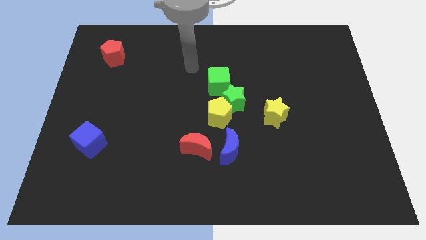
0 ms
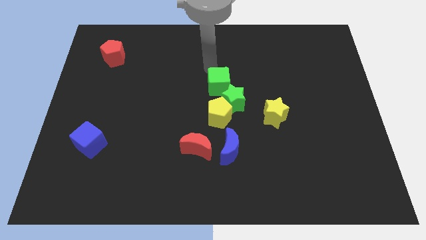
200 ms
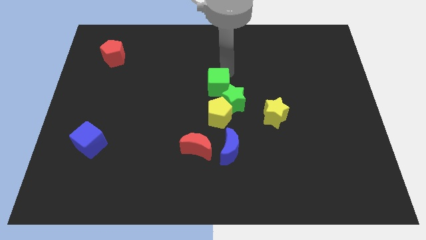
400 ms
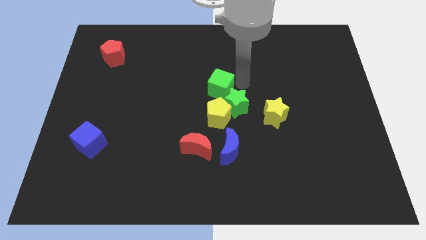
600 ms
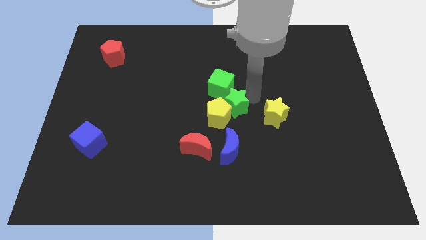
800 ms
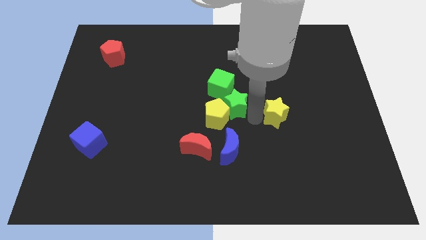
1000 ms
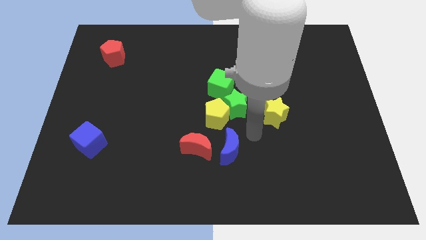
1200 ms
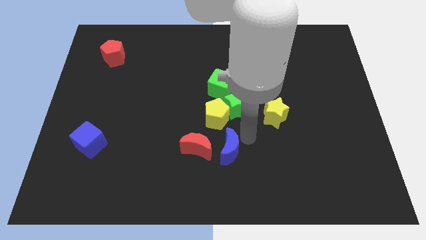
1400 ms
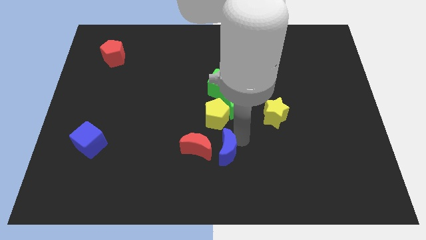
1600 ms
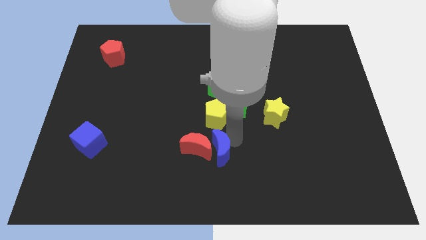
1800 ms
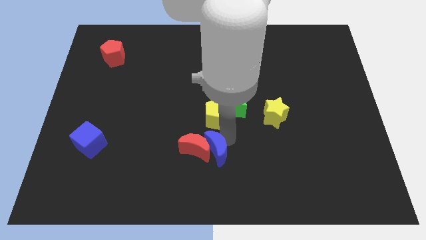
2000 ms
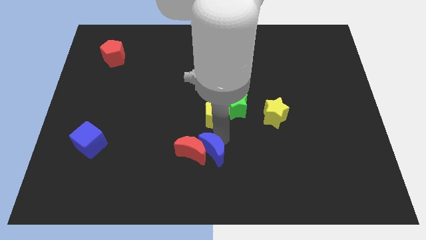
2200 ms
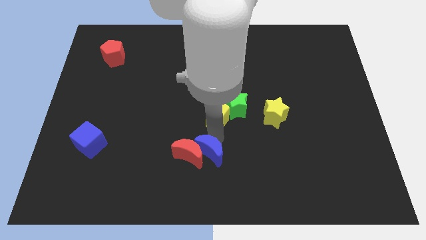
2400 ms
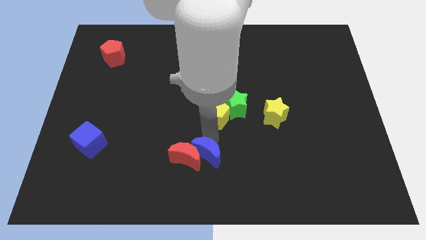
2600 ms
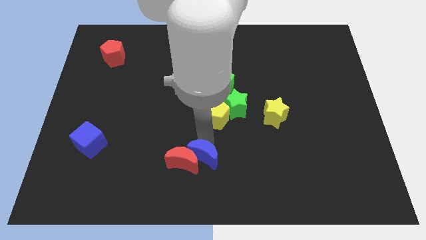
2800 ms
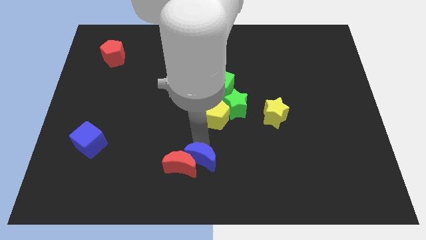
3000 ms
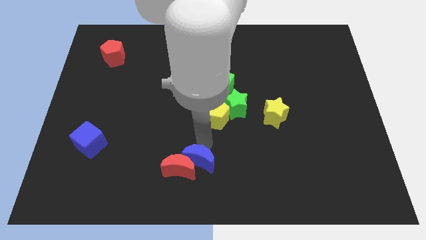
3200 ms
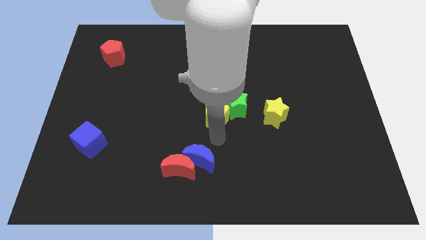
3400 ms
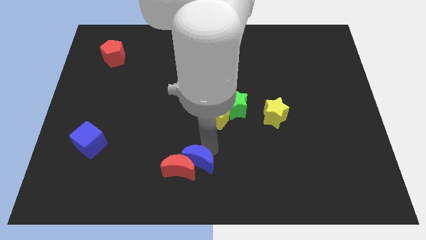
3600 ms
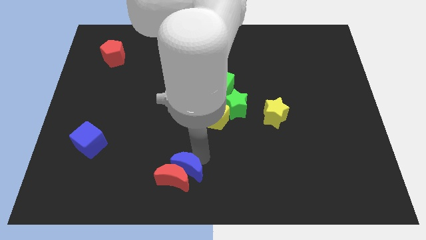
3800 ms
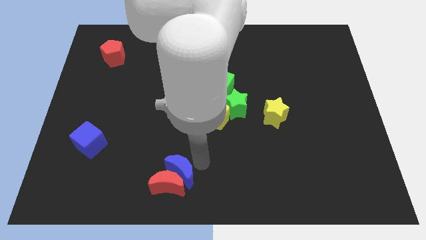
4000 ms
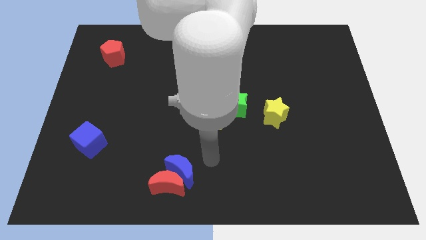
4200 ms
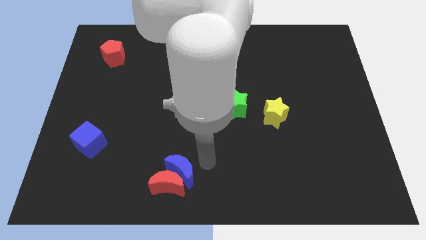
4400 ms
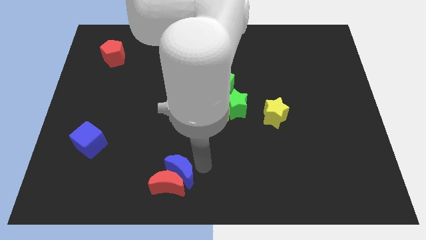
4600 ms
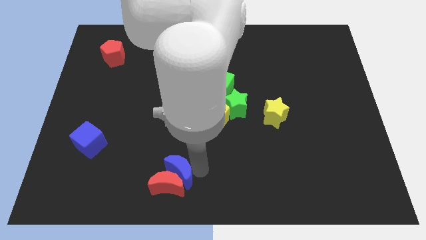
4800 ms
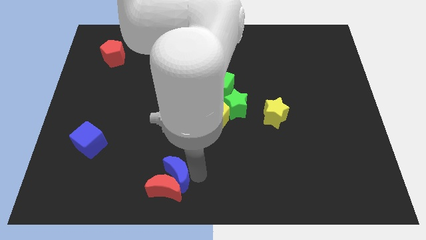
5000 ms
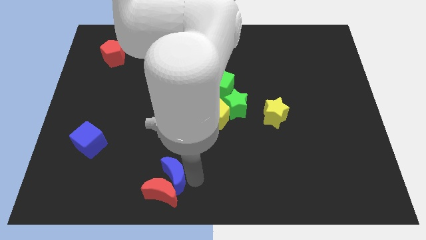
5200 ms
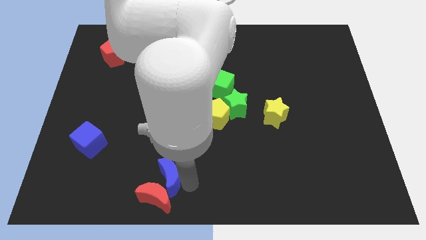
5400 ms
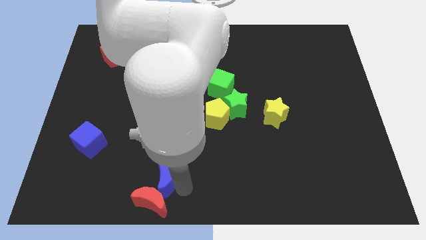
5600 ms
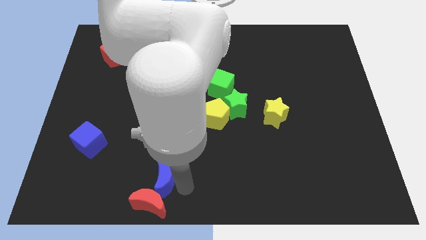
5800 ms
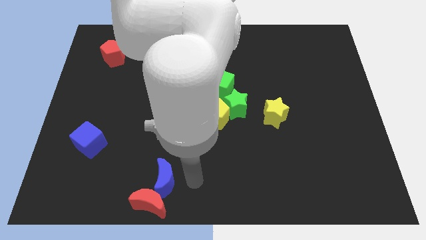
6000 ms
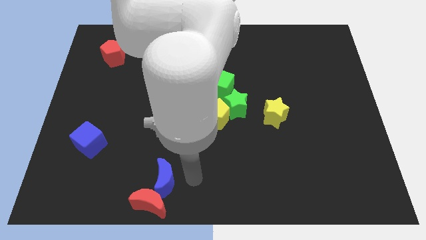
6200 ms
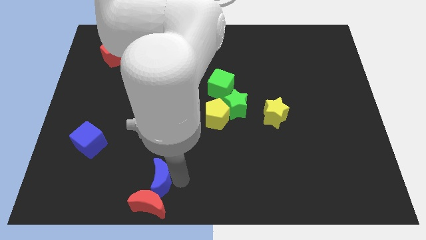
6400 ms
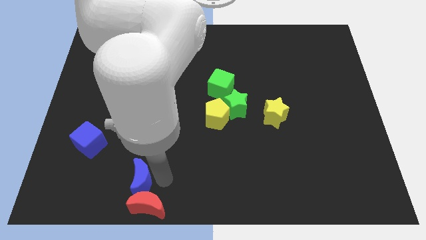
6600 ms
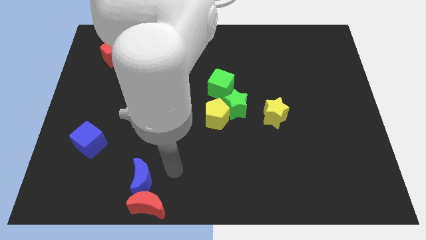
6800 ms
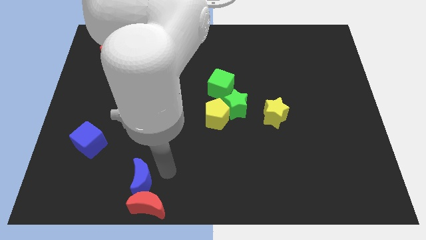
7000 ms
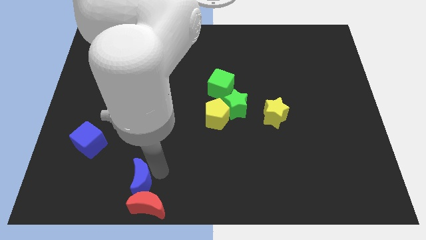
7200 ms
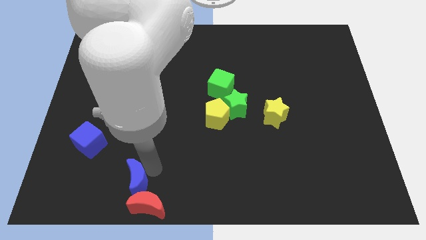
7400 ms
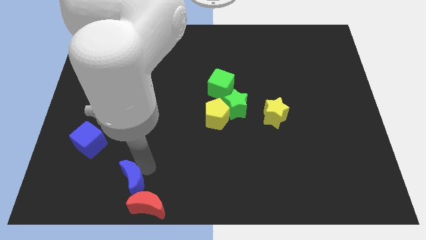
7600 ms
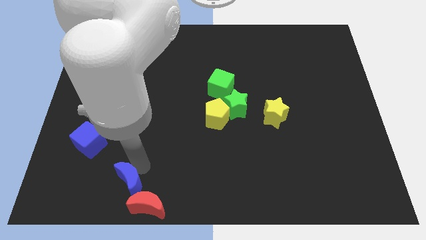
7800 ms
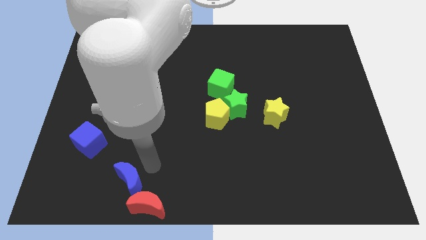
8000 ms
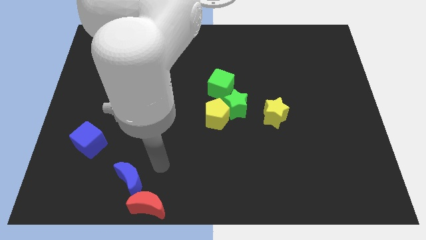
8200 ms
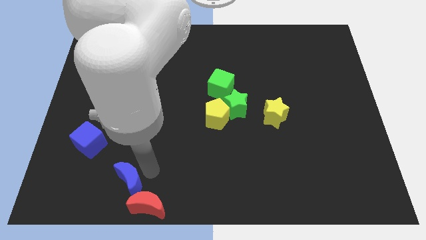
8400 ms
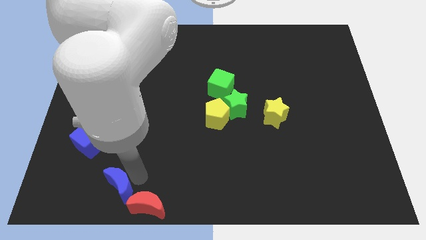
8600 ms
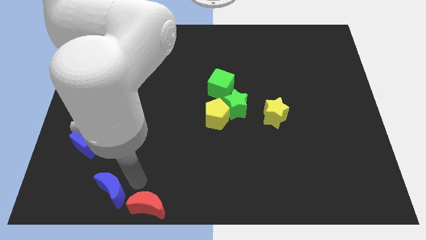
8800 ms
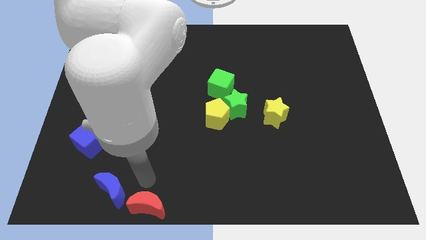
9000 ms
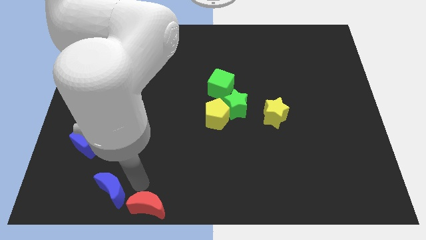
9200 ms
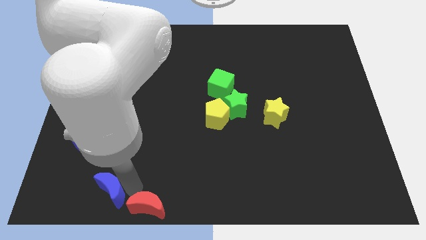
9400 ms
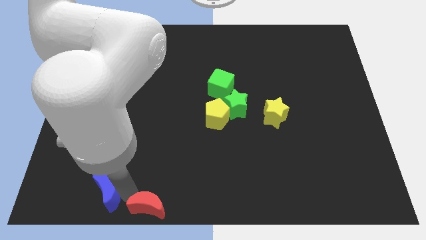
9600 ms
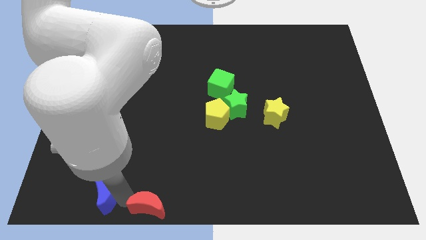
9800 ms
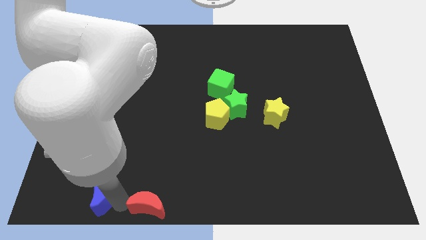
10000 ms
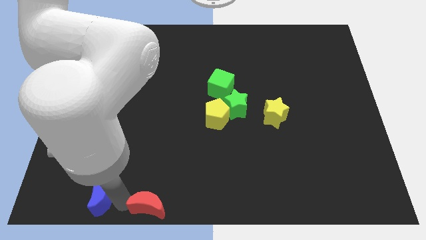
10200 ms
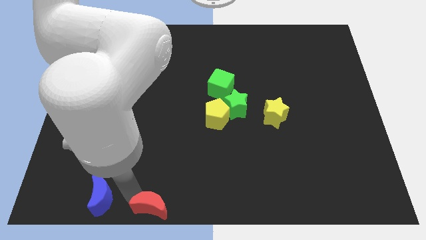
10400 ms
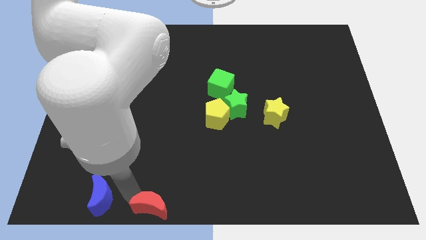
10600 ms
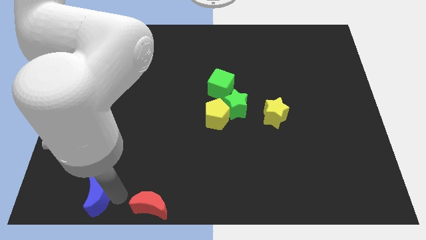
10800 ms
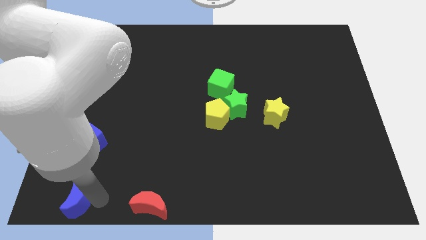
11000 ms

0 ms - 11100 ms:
slide the blue moon to the bottom left

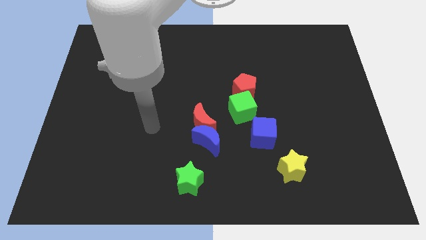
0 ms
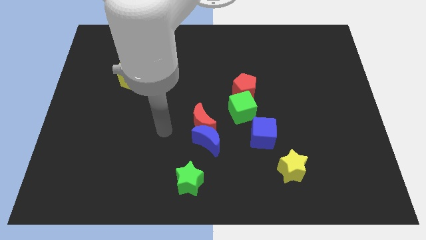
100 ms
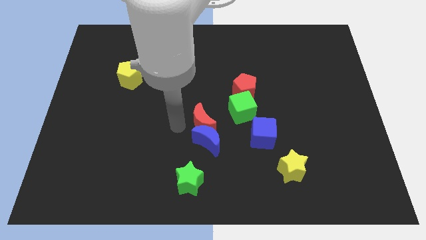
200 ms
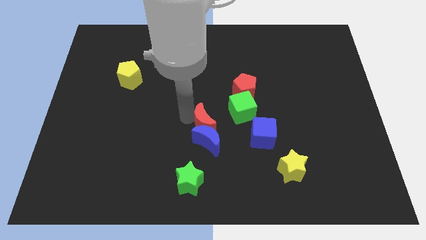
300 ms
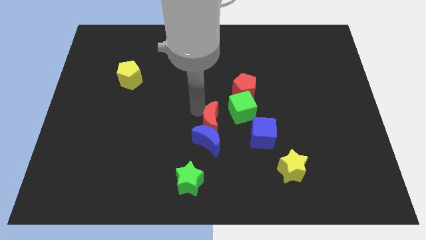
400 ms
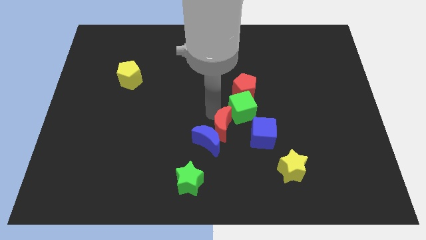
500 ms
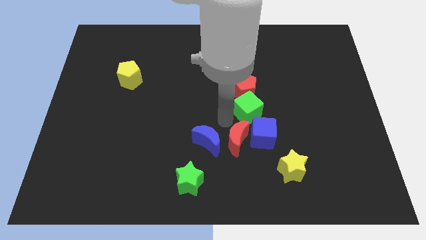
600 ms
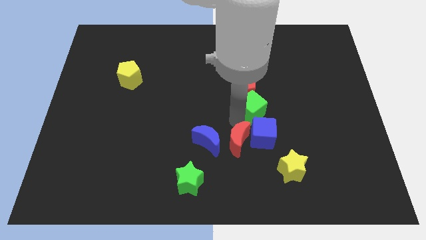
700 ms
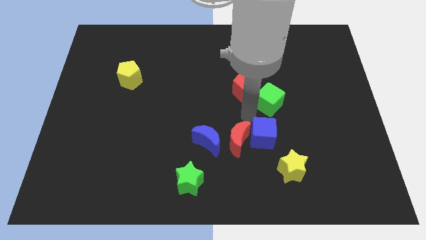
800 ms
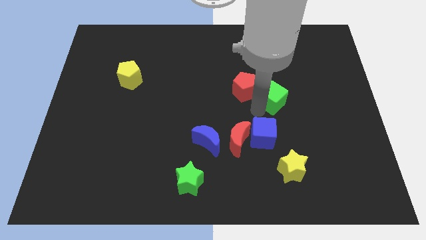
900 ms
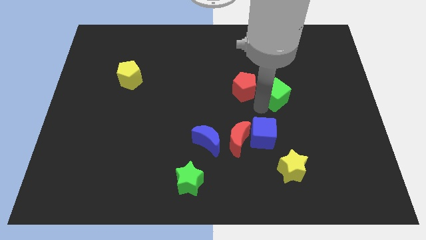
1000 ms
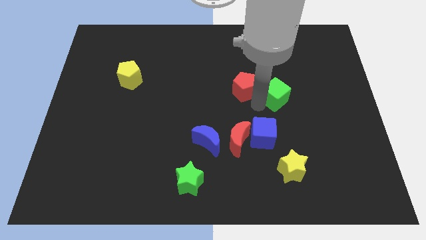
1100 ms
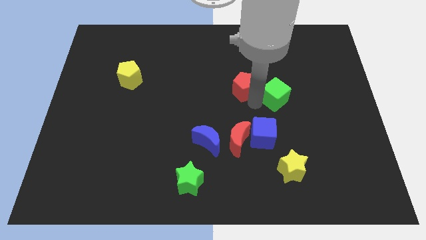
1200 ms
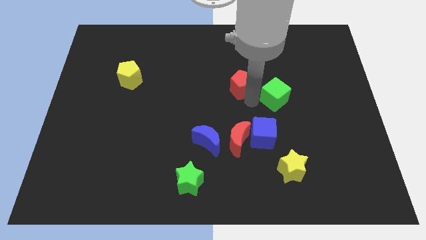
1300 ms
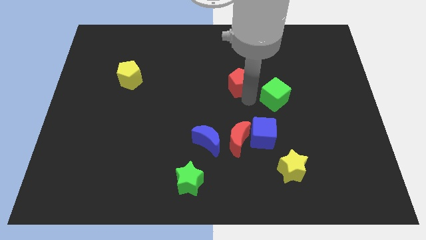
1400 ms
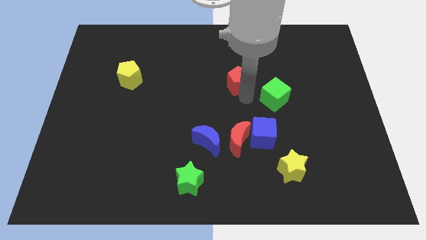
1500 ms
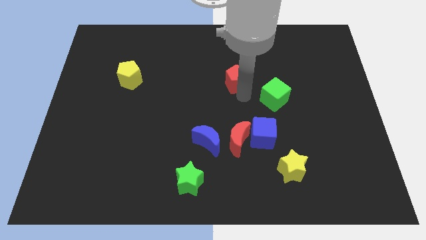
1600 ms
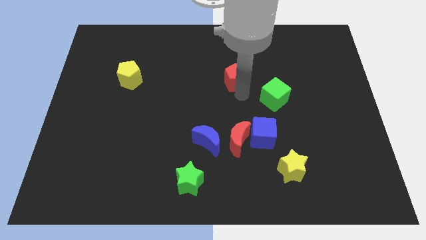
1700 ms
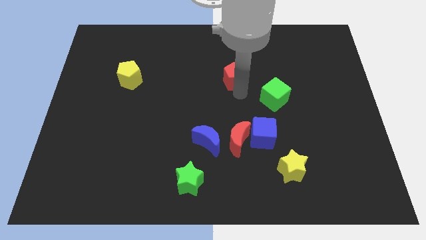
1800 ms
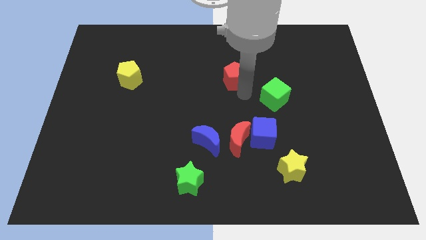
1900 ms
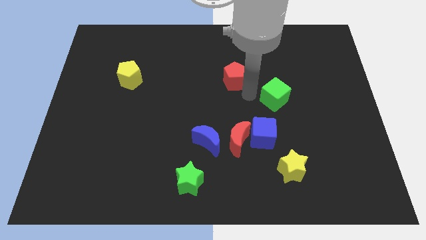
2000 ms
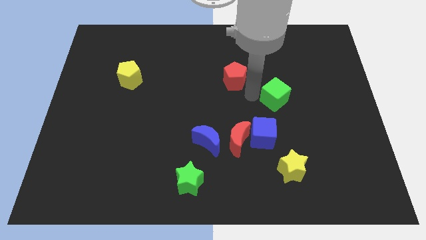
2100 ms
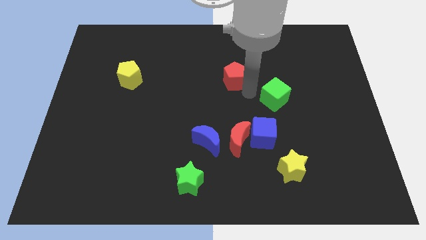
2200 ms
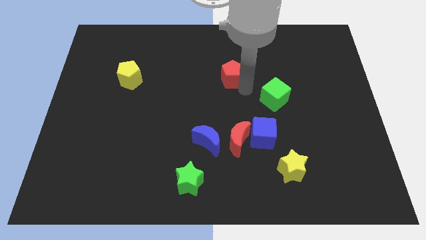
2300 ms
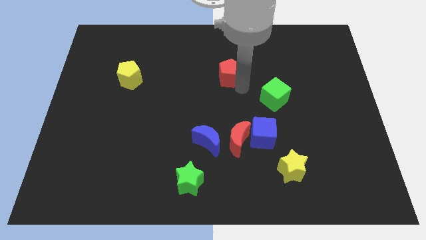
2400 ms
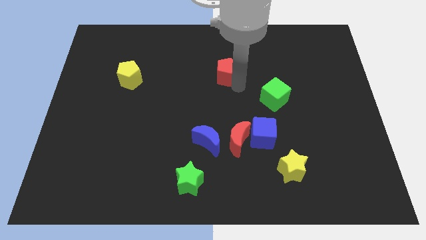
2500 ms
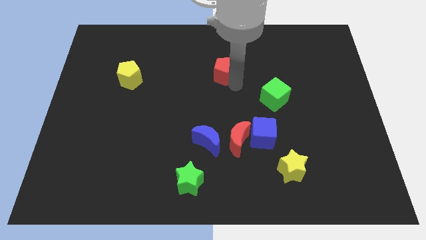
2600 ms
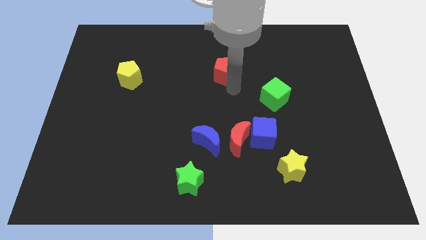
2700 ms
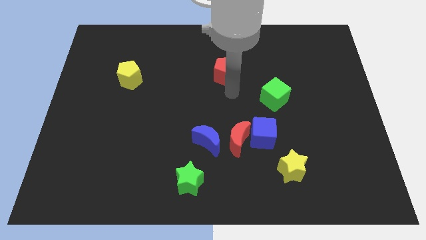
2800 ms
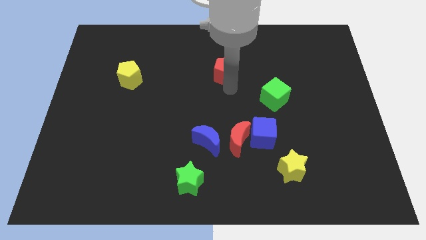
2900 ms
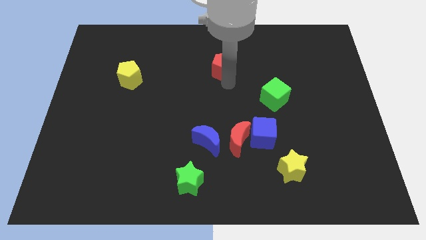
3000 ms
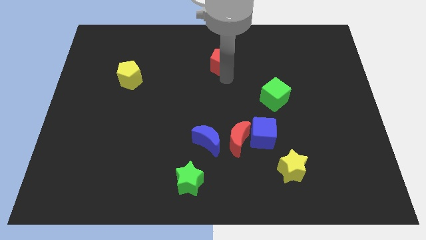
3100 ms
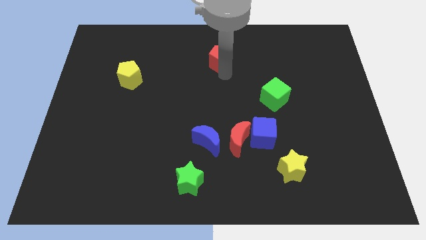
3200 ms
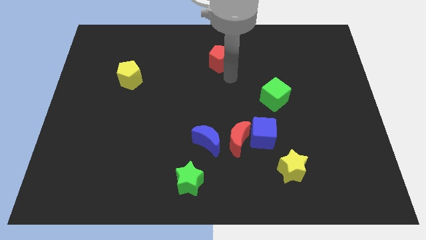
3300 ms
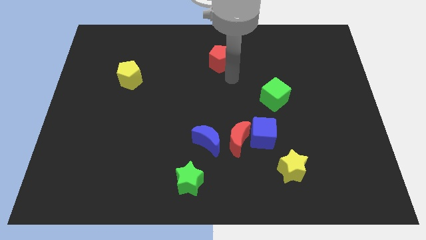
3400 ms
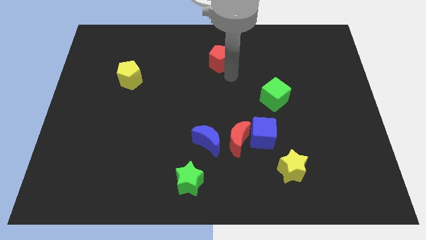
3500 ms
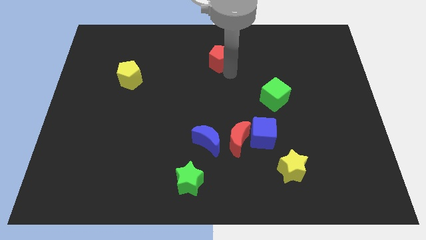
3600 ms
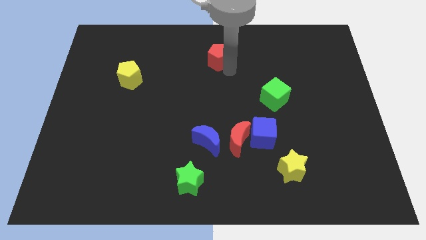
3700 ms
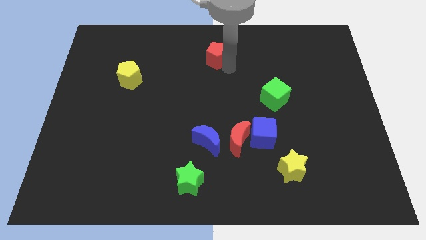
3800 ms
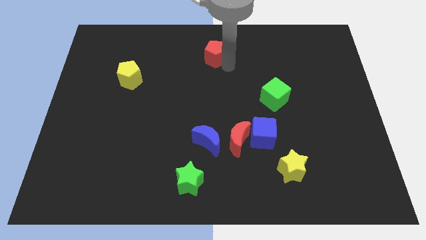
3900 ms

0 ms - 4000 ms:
push the red pentagon to the top side
